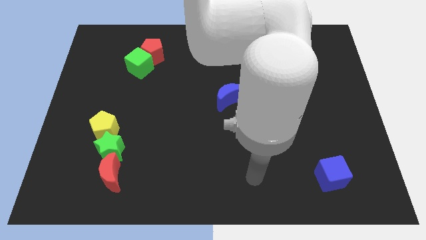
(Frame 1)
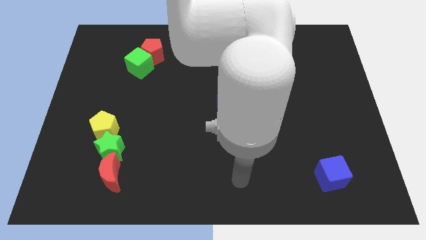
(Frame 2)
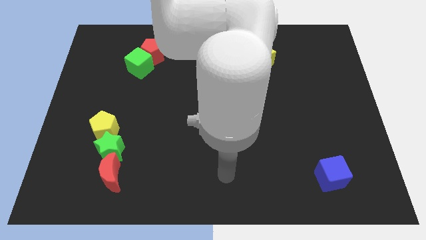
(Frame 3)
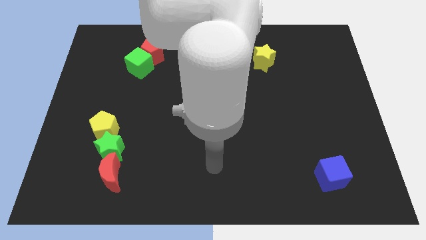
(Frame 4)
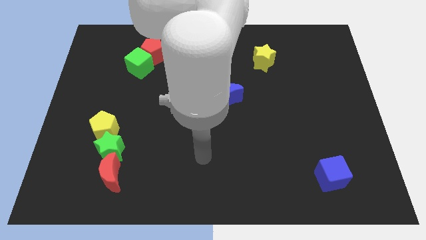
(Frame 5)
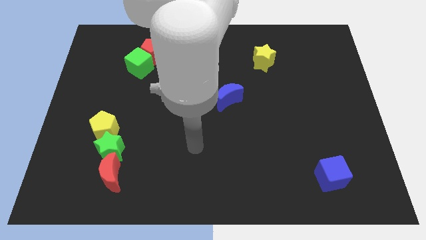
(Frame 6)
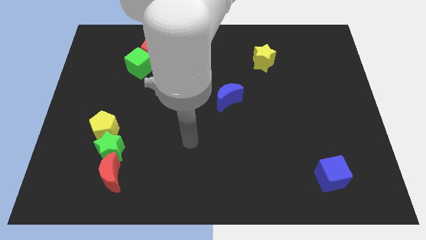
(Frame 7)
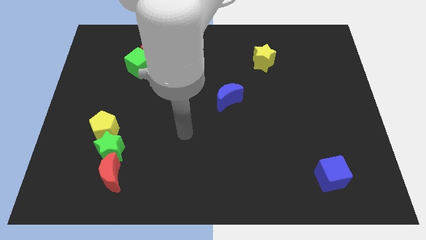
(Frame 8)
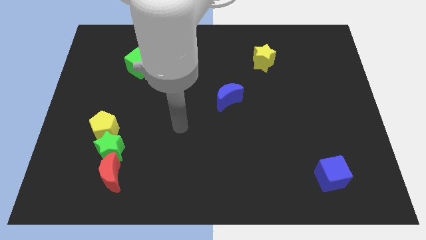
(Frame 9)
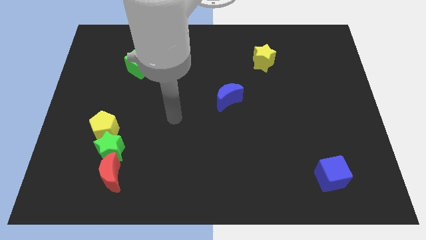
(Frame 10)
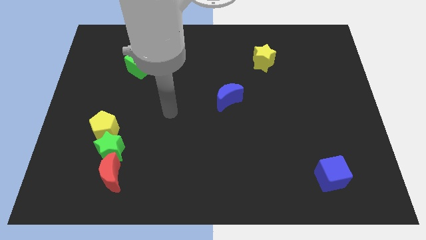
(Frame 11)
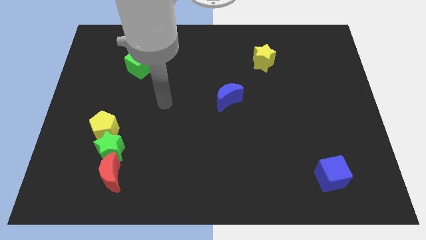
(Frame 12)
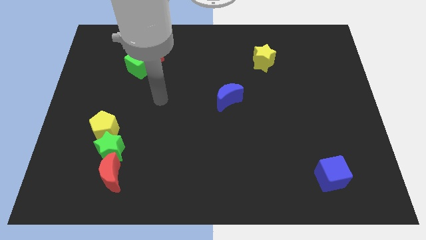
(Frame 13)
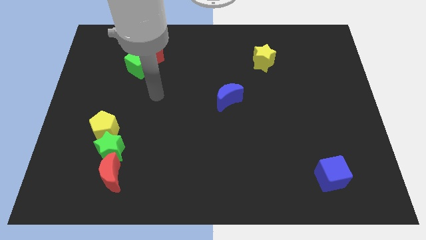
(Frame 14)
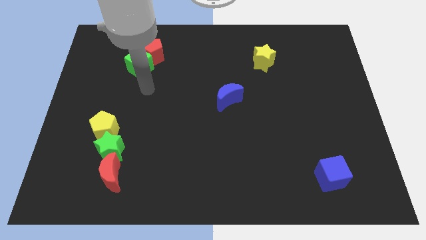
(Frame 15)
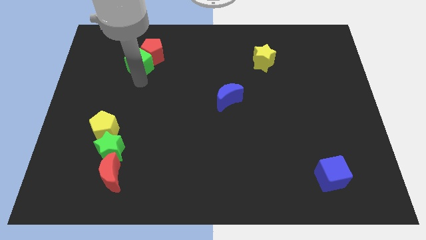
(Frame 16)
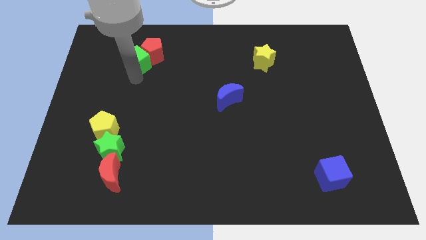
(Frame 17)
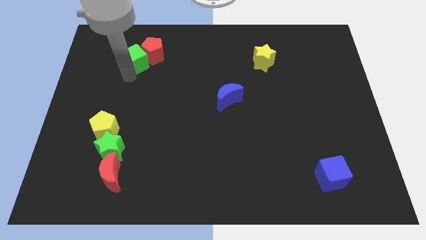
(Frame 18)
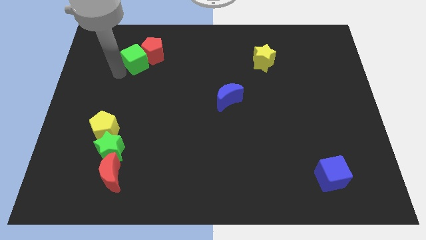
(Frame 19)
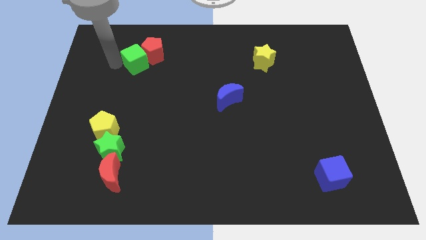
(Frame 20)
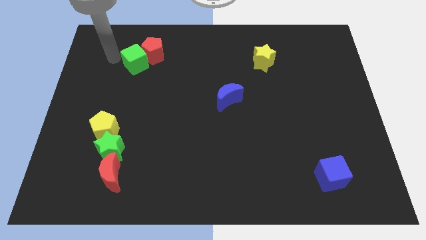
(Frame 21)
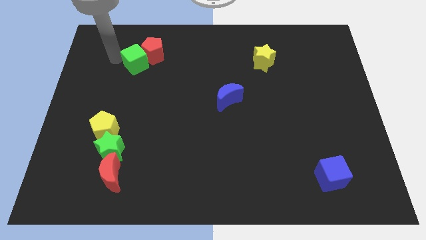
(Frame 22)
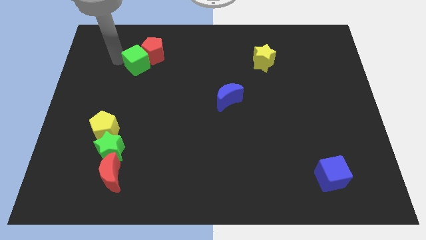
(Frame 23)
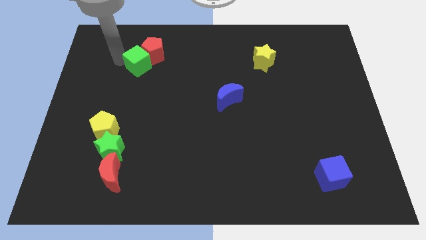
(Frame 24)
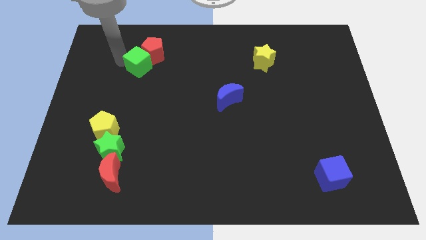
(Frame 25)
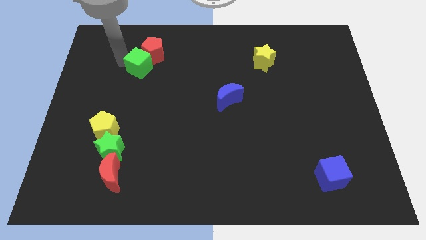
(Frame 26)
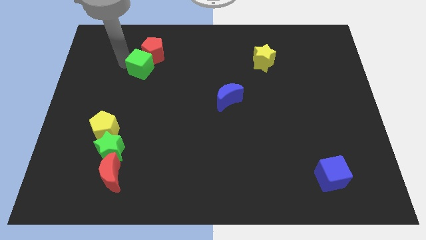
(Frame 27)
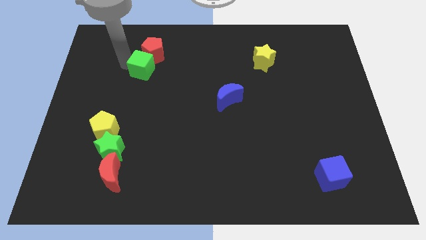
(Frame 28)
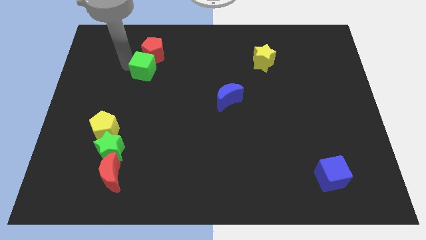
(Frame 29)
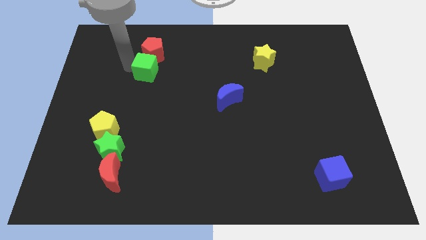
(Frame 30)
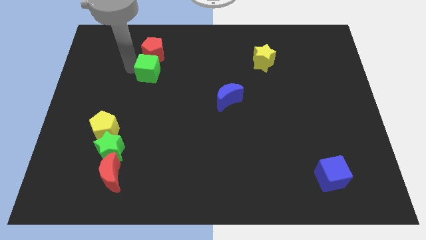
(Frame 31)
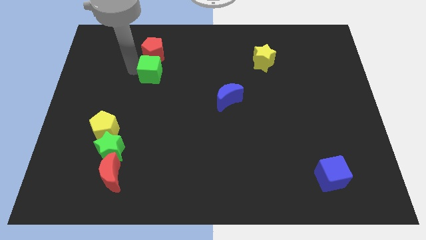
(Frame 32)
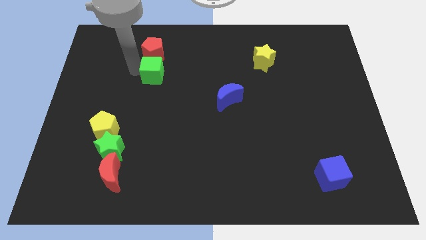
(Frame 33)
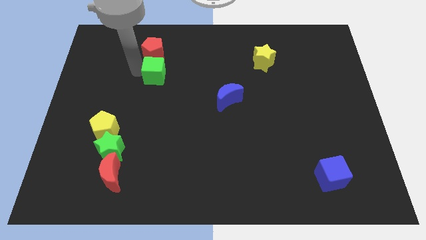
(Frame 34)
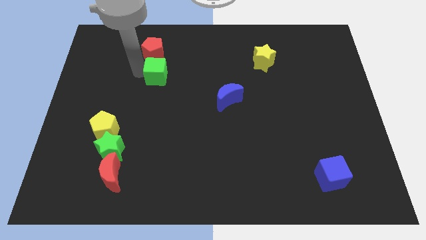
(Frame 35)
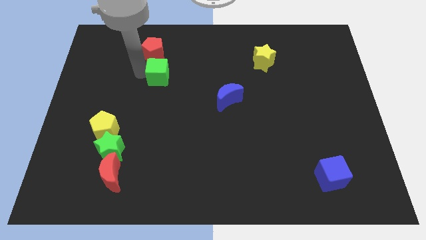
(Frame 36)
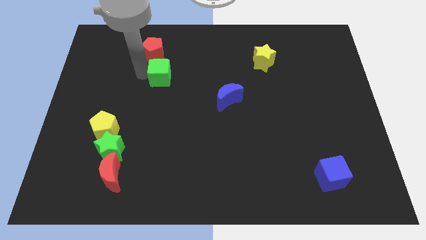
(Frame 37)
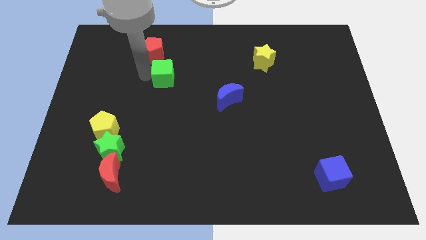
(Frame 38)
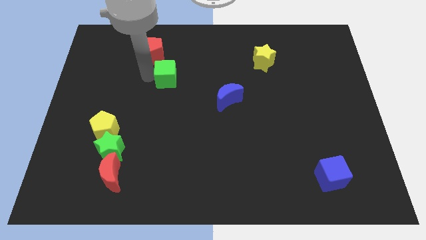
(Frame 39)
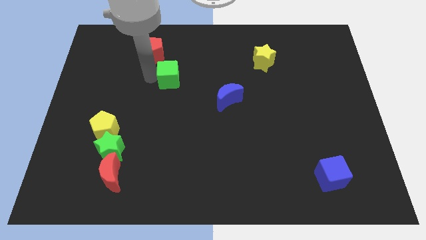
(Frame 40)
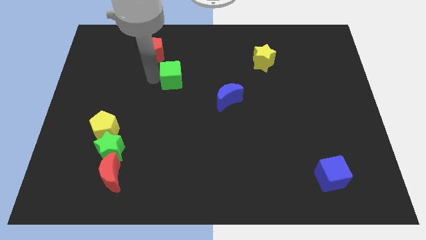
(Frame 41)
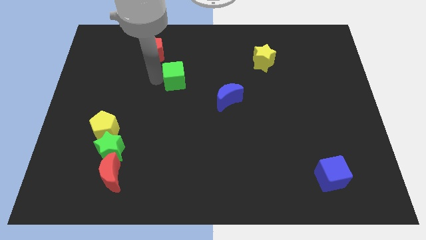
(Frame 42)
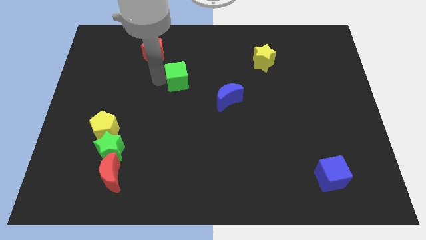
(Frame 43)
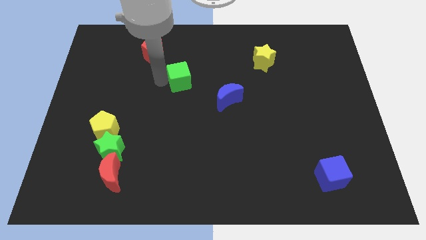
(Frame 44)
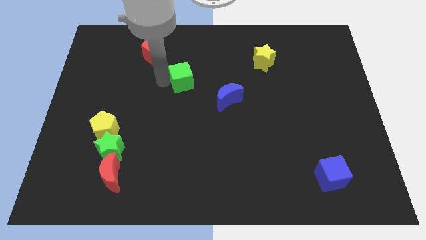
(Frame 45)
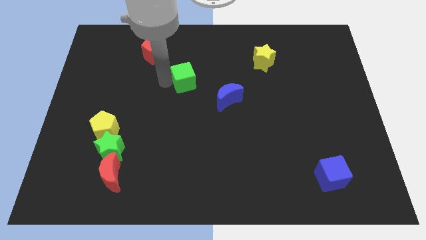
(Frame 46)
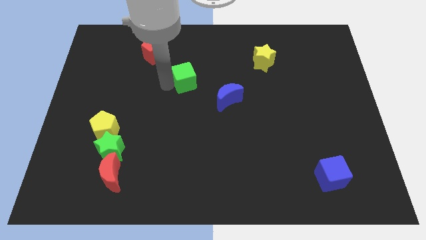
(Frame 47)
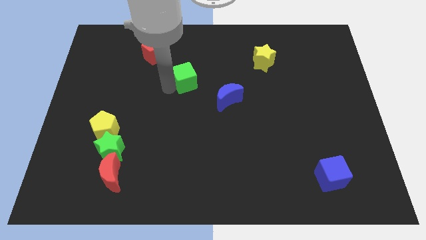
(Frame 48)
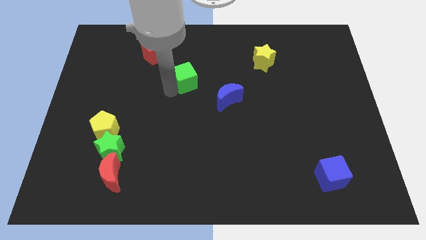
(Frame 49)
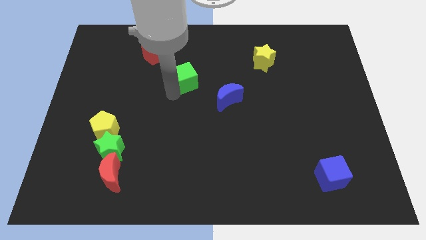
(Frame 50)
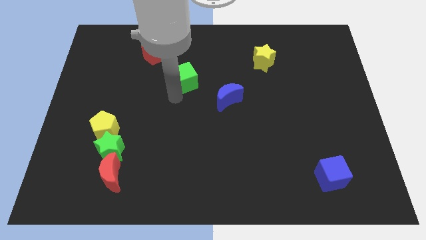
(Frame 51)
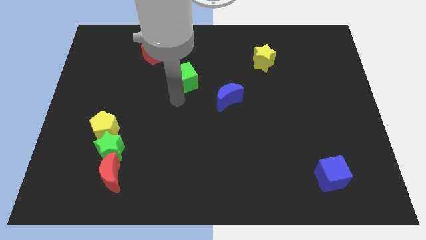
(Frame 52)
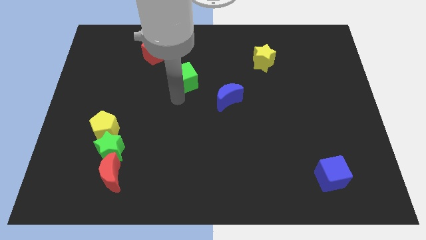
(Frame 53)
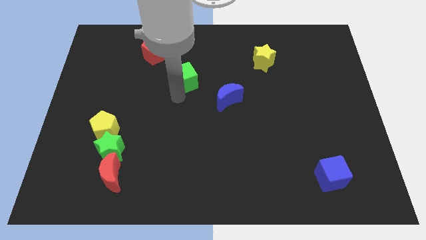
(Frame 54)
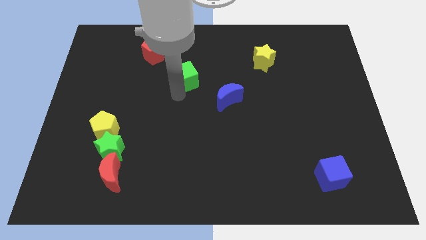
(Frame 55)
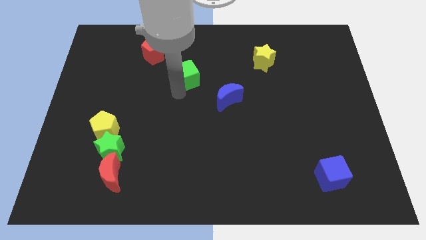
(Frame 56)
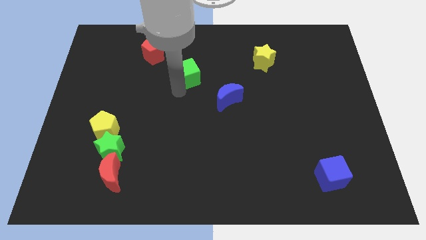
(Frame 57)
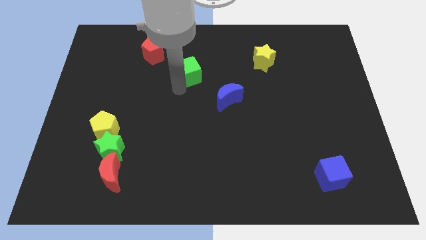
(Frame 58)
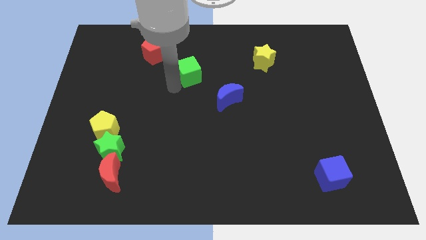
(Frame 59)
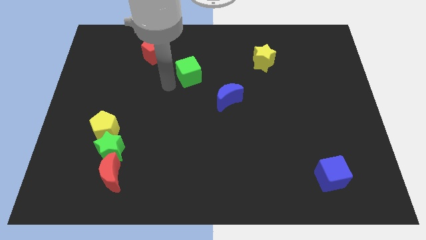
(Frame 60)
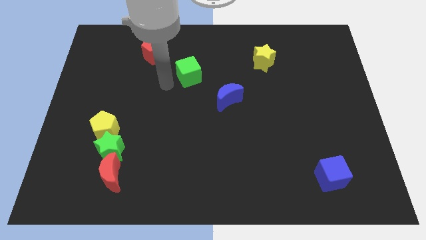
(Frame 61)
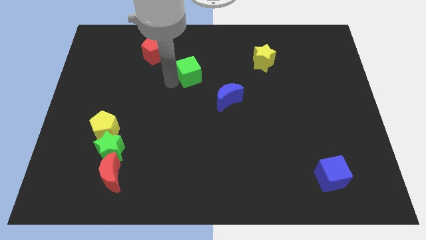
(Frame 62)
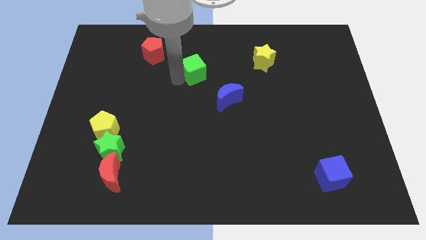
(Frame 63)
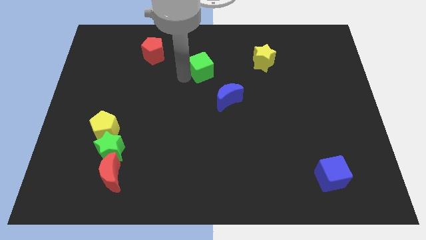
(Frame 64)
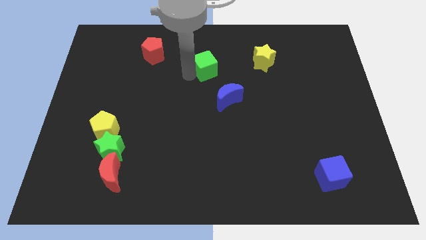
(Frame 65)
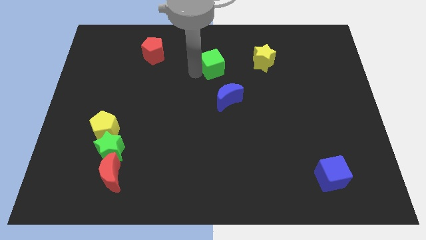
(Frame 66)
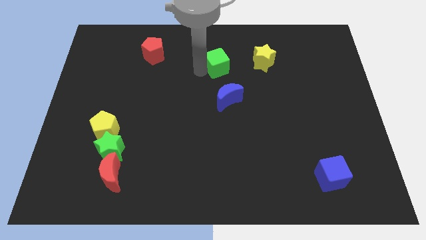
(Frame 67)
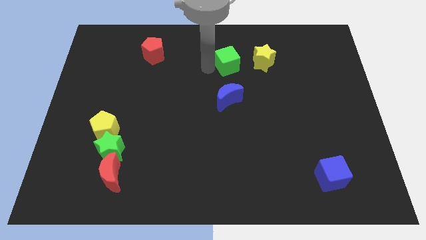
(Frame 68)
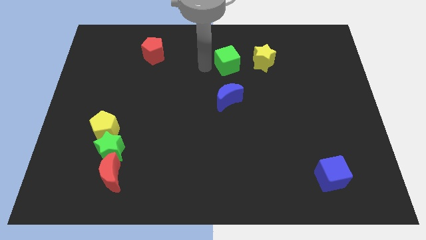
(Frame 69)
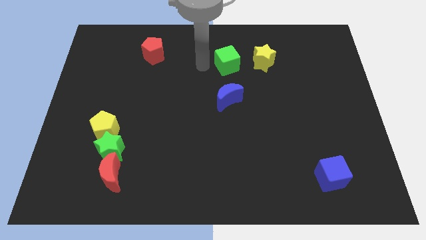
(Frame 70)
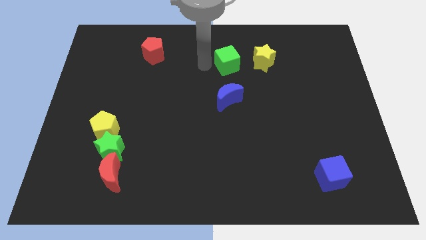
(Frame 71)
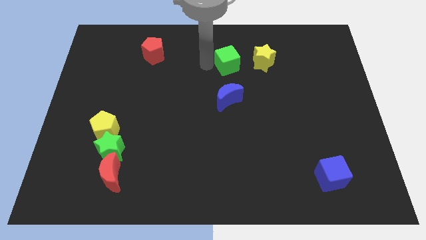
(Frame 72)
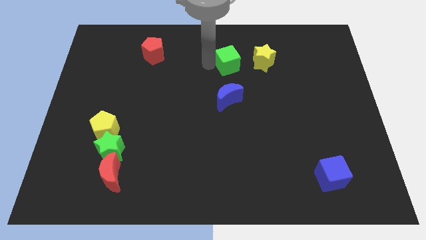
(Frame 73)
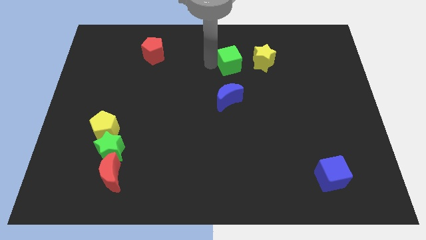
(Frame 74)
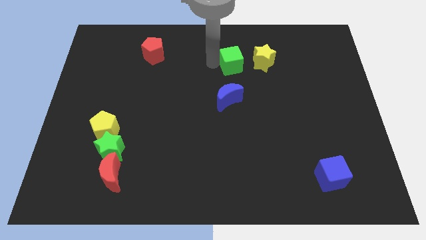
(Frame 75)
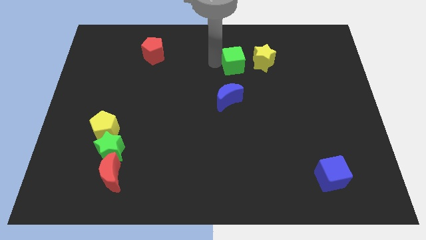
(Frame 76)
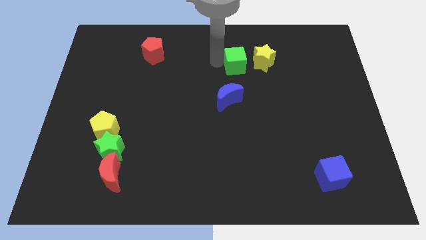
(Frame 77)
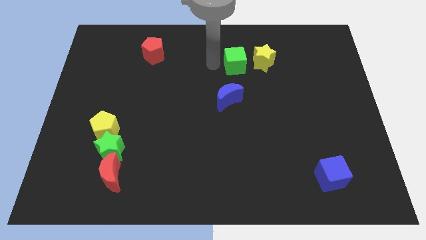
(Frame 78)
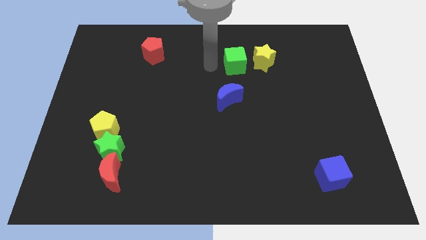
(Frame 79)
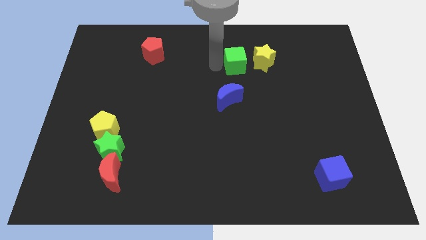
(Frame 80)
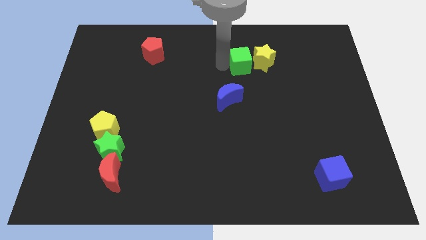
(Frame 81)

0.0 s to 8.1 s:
slide the green cube next to the yellow star

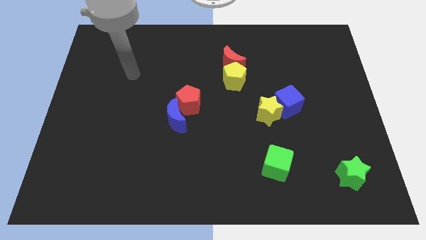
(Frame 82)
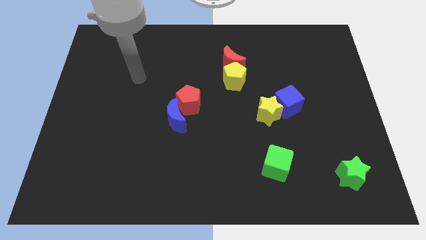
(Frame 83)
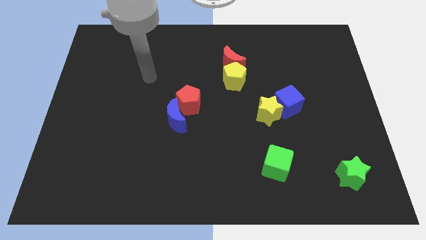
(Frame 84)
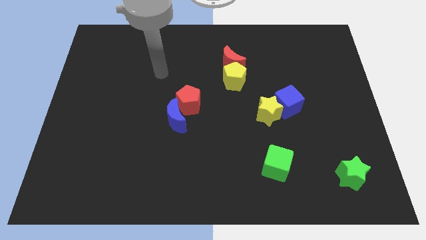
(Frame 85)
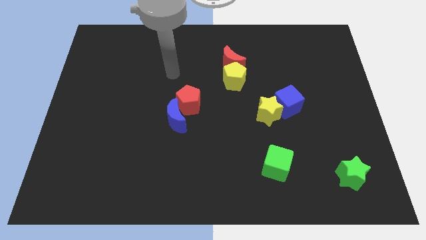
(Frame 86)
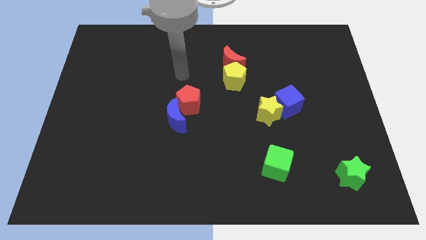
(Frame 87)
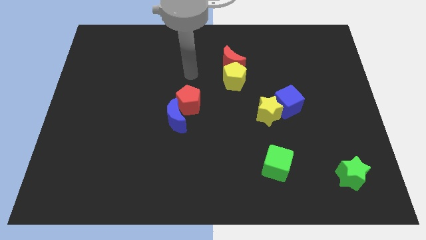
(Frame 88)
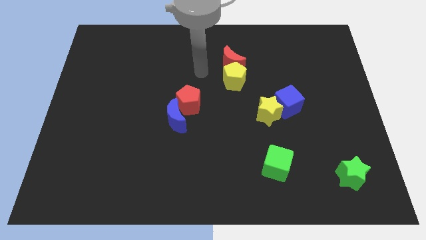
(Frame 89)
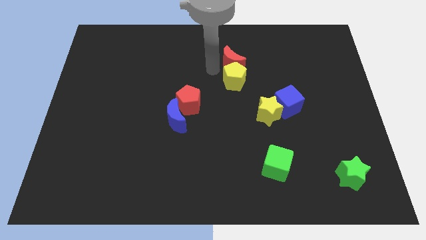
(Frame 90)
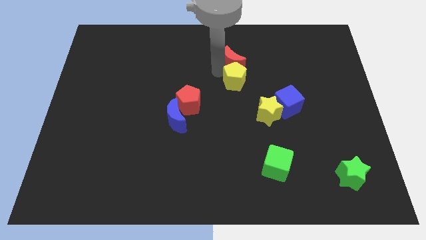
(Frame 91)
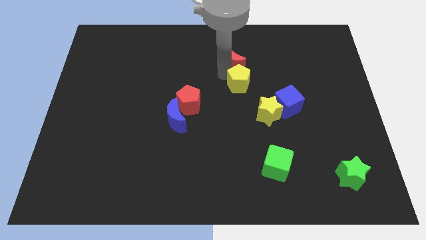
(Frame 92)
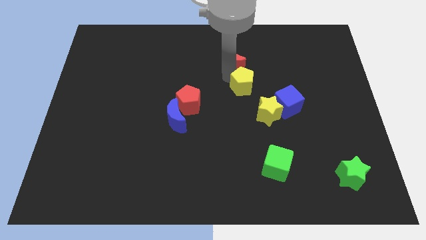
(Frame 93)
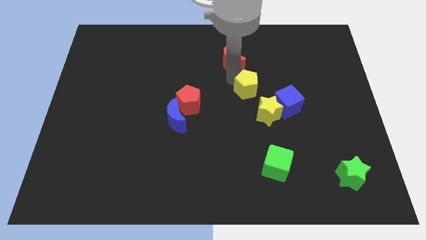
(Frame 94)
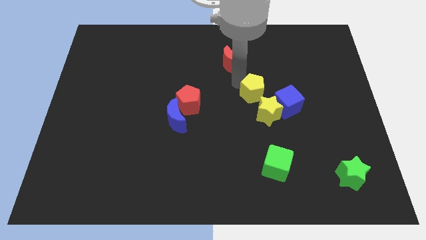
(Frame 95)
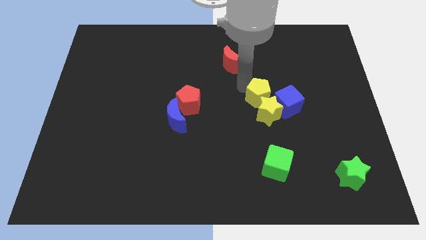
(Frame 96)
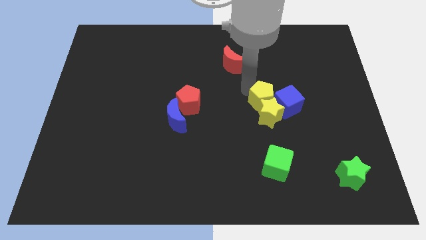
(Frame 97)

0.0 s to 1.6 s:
move the yellow pentagon to the blue cube
